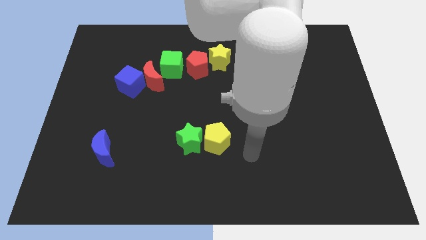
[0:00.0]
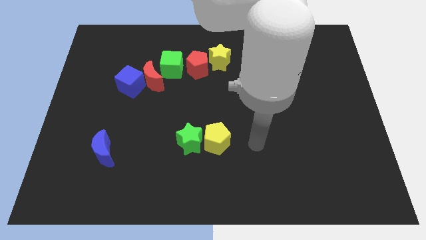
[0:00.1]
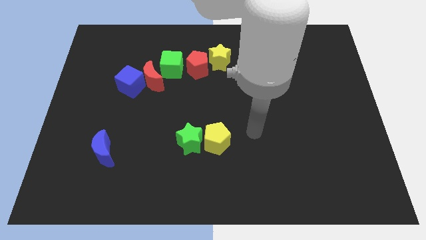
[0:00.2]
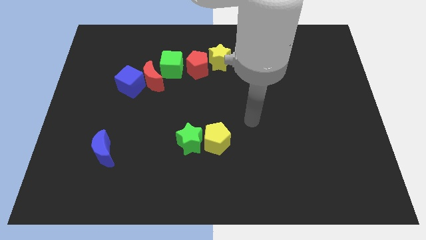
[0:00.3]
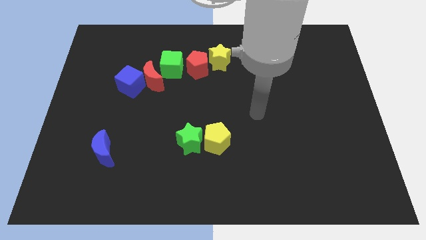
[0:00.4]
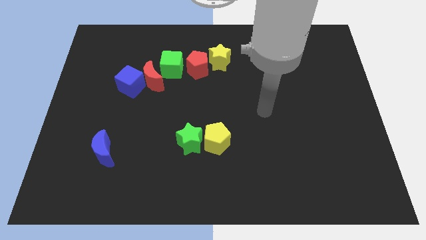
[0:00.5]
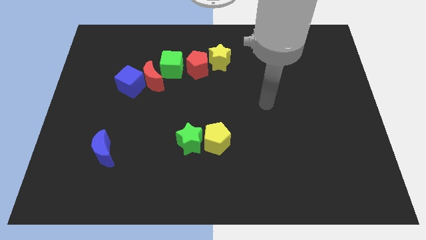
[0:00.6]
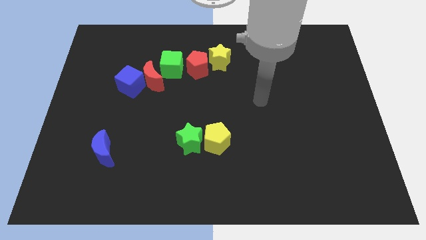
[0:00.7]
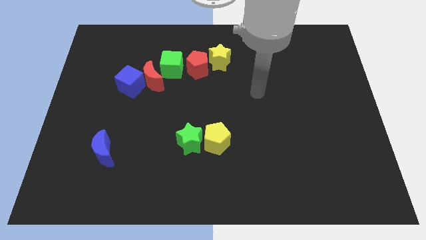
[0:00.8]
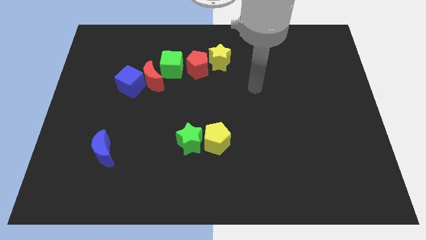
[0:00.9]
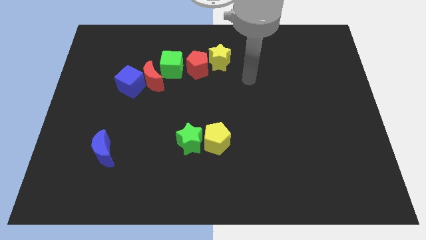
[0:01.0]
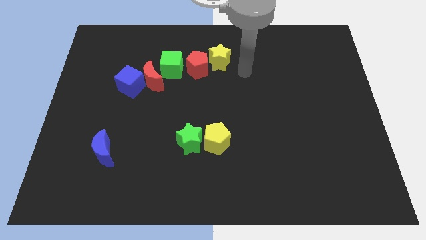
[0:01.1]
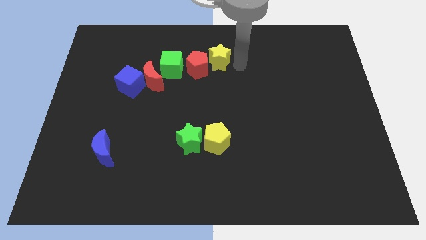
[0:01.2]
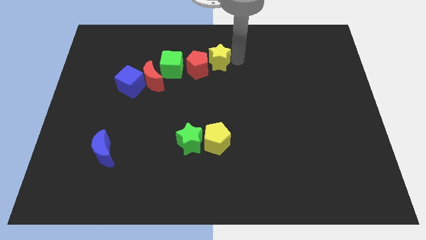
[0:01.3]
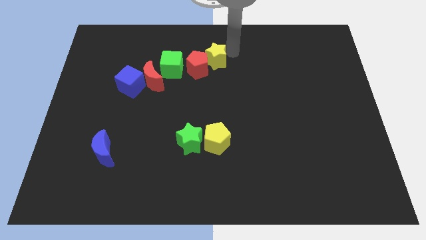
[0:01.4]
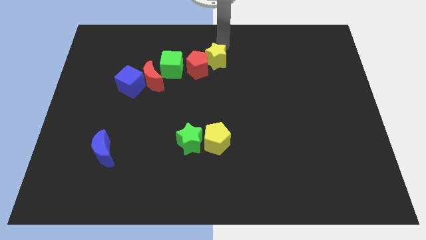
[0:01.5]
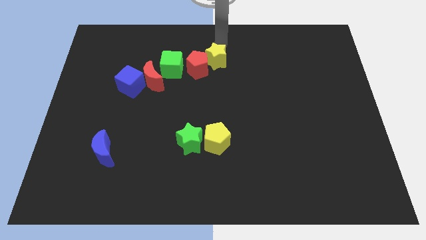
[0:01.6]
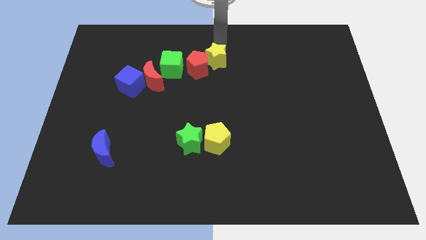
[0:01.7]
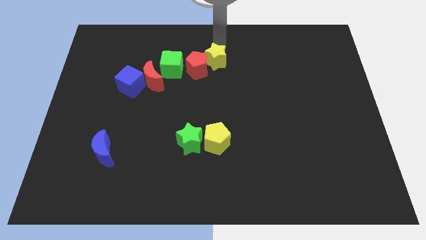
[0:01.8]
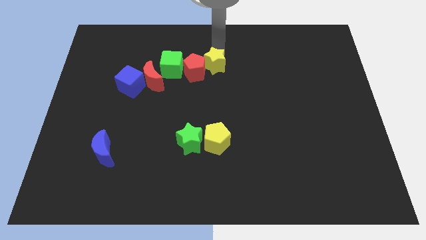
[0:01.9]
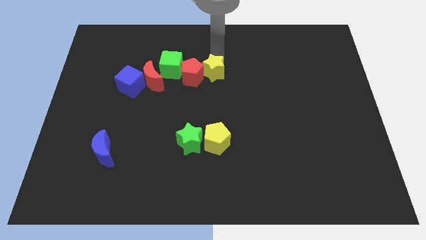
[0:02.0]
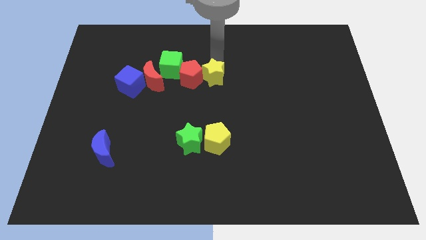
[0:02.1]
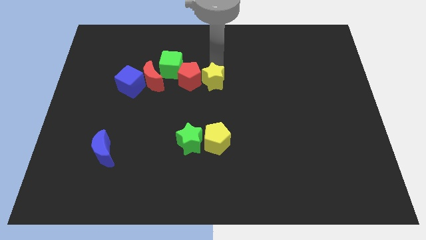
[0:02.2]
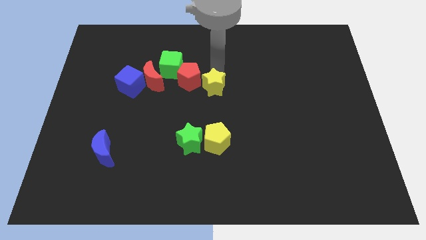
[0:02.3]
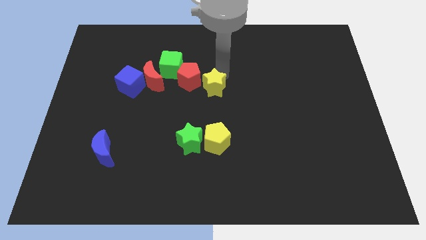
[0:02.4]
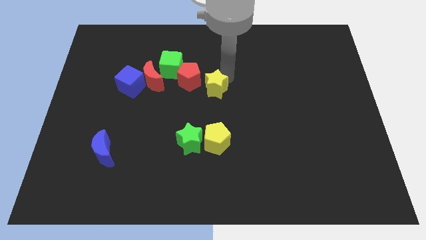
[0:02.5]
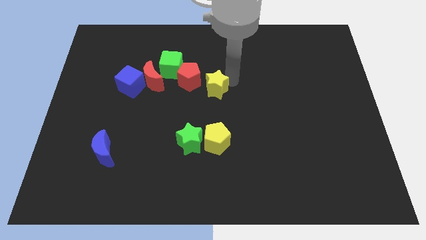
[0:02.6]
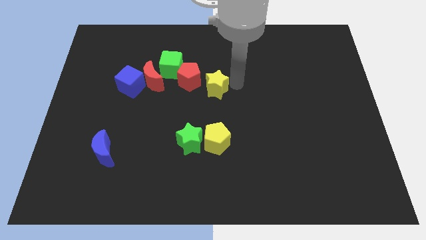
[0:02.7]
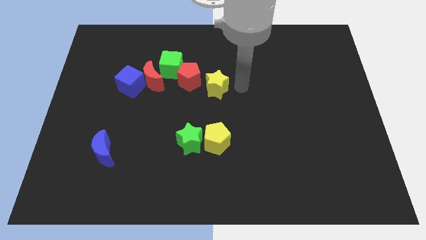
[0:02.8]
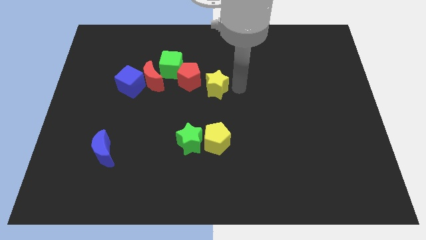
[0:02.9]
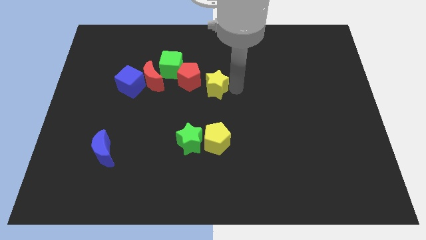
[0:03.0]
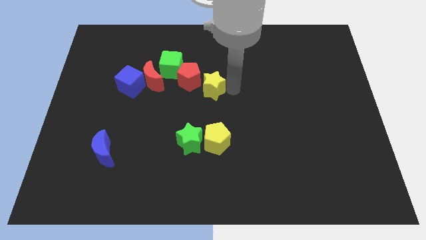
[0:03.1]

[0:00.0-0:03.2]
move the yellow star slightly downwards and left

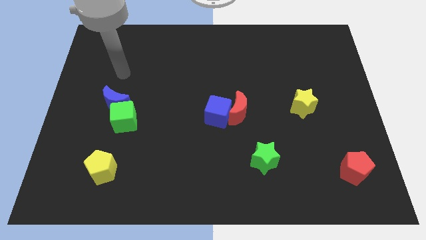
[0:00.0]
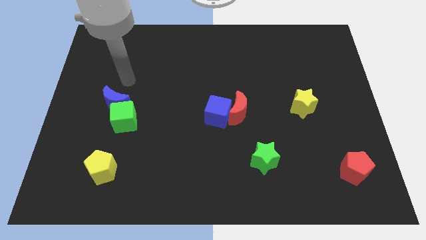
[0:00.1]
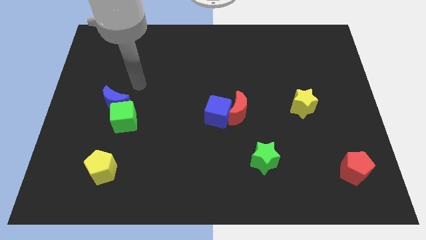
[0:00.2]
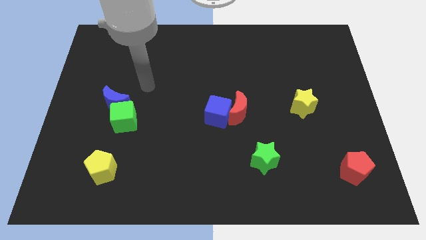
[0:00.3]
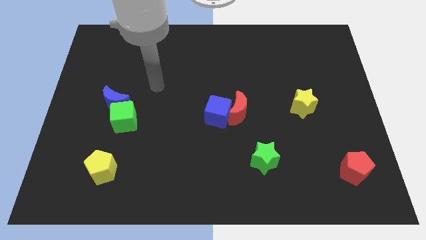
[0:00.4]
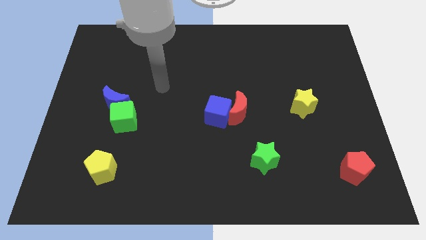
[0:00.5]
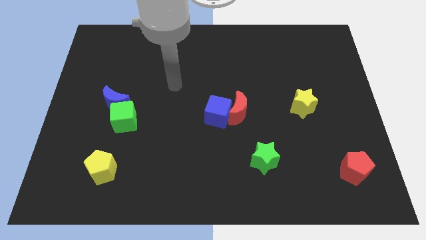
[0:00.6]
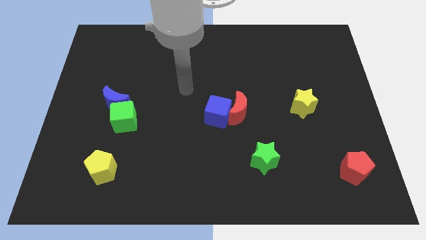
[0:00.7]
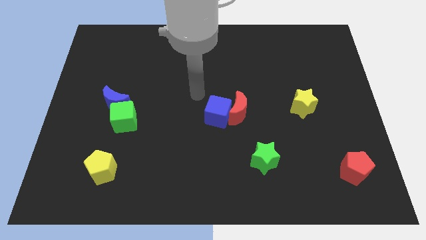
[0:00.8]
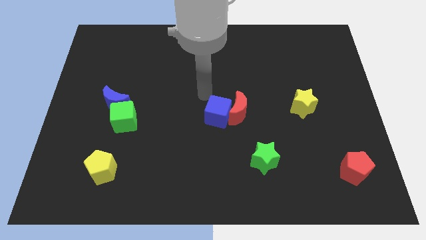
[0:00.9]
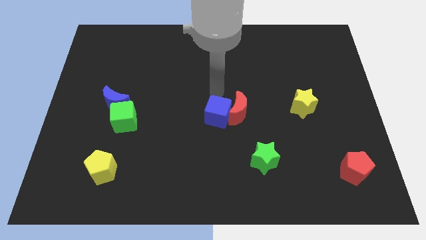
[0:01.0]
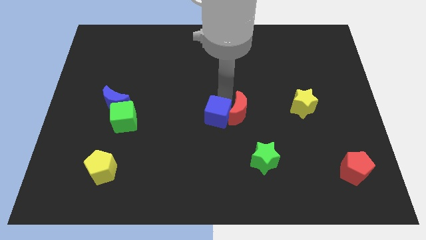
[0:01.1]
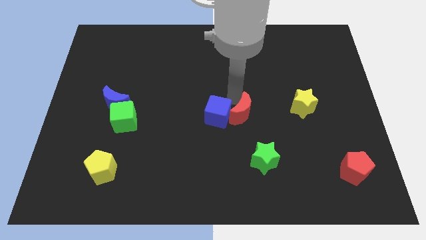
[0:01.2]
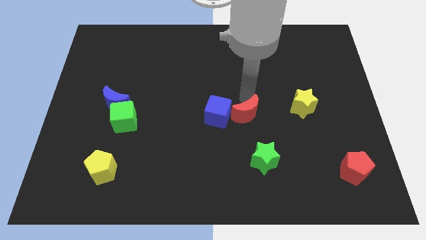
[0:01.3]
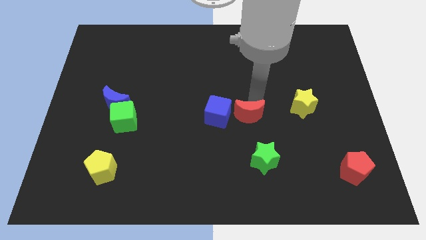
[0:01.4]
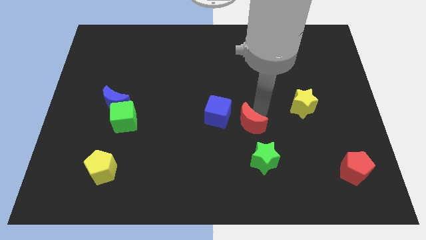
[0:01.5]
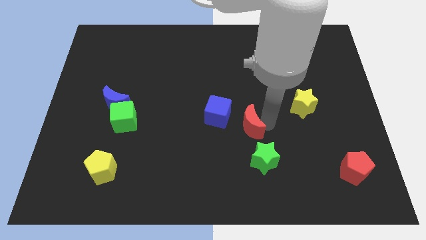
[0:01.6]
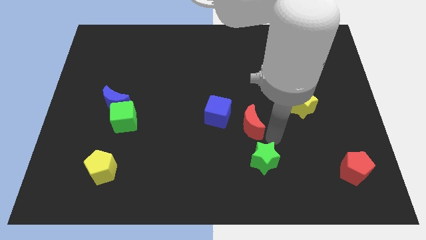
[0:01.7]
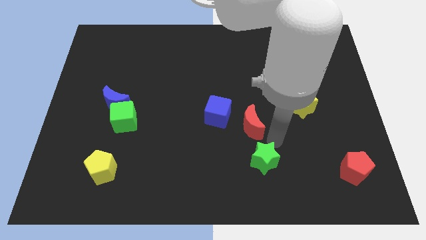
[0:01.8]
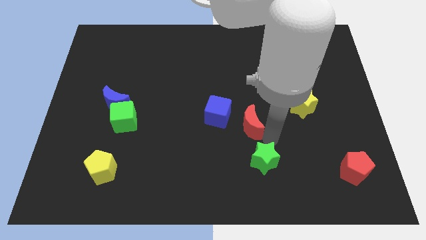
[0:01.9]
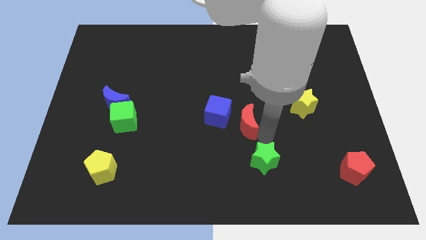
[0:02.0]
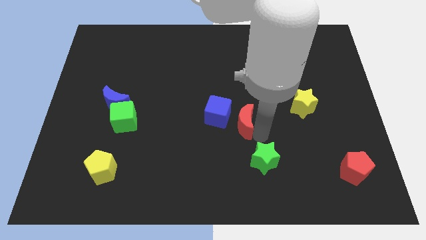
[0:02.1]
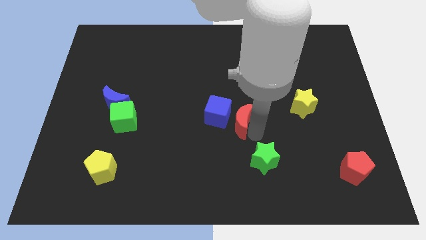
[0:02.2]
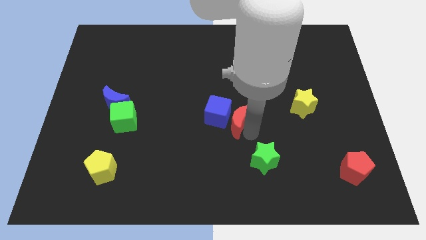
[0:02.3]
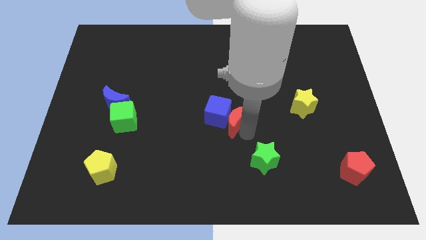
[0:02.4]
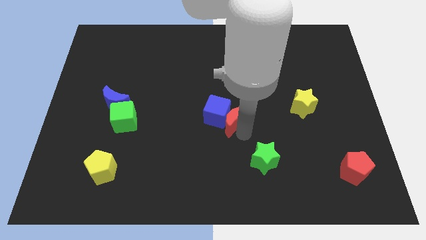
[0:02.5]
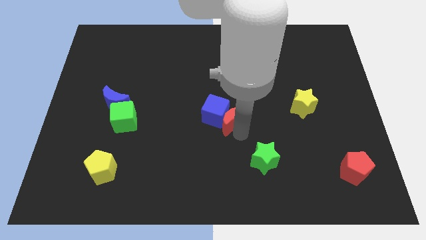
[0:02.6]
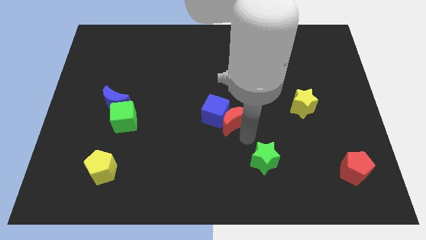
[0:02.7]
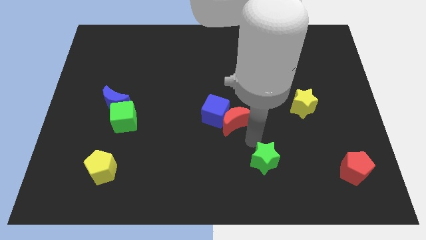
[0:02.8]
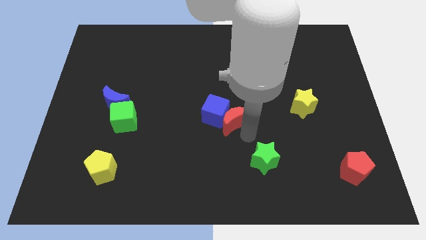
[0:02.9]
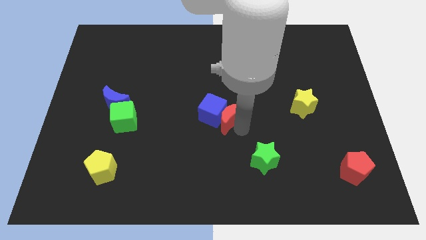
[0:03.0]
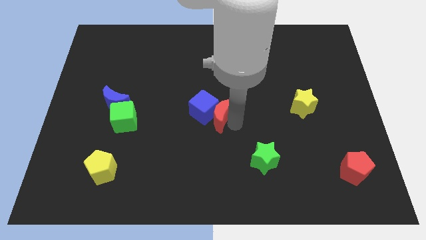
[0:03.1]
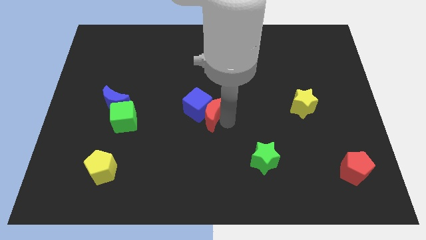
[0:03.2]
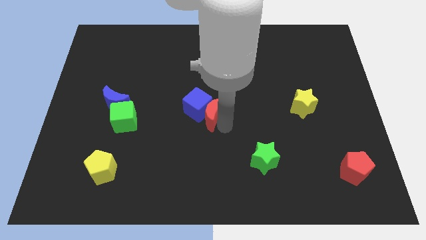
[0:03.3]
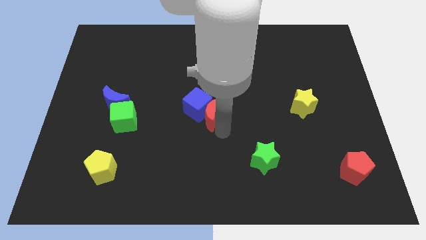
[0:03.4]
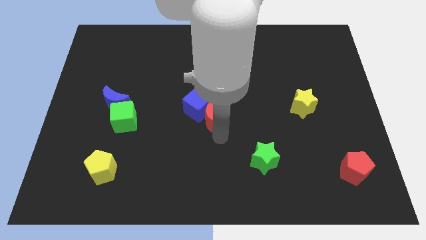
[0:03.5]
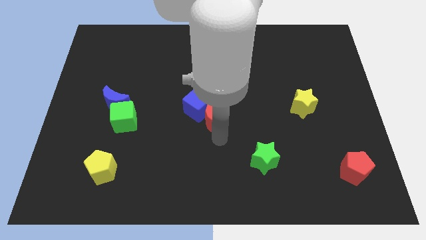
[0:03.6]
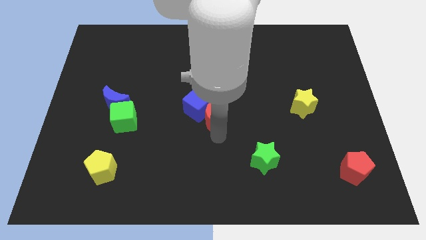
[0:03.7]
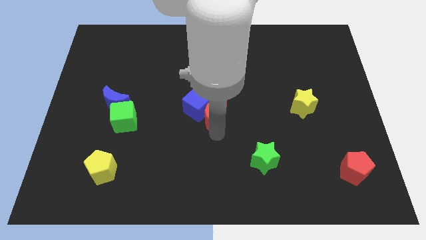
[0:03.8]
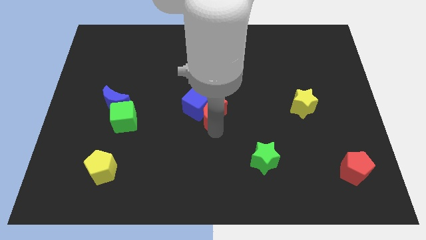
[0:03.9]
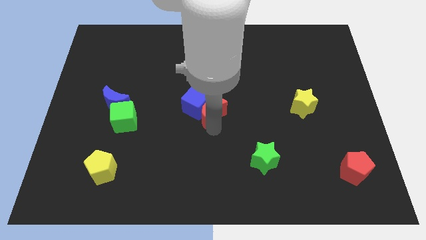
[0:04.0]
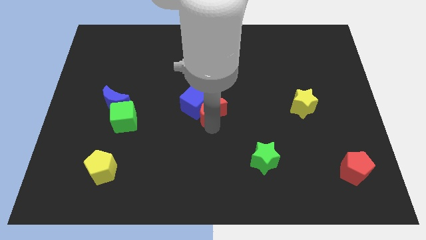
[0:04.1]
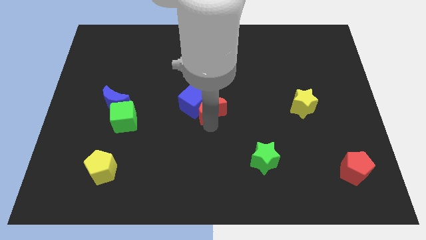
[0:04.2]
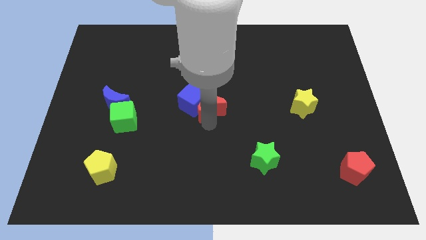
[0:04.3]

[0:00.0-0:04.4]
move the red moon to the left a bit

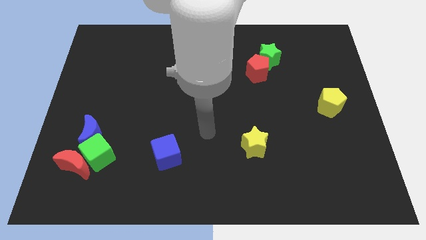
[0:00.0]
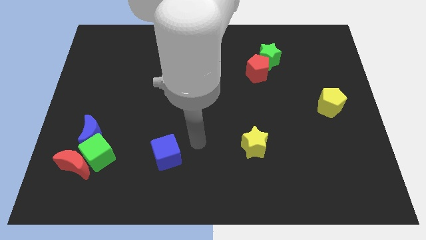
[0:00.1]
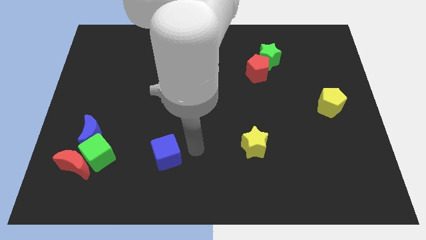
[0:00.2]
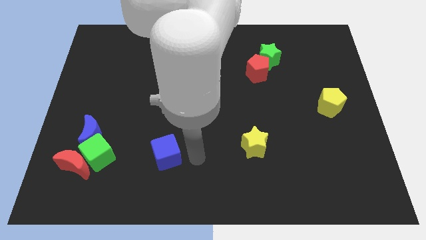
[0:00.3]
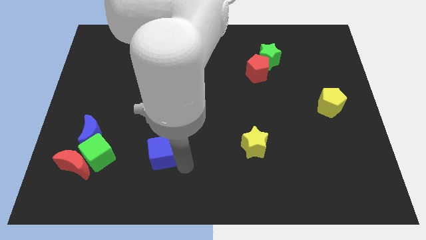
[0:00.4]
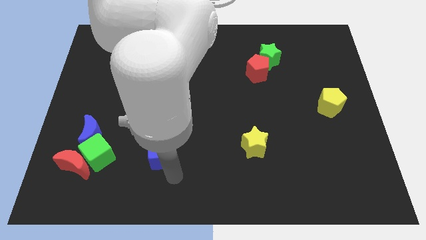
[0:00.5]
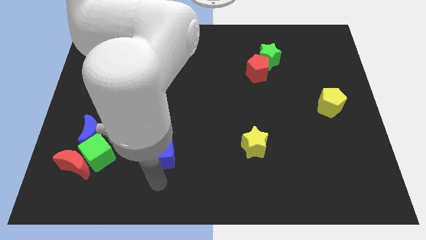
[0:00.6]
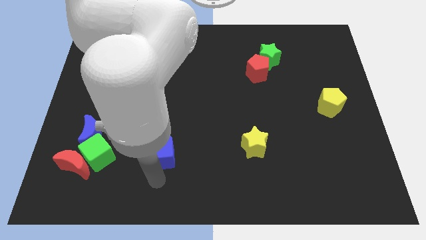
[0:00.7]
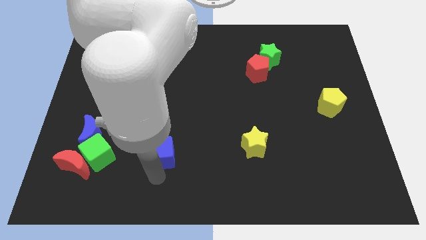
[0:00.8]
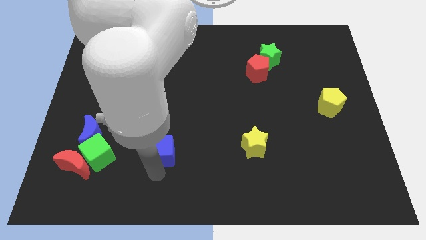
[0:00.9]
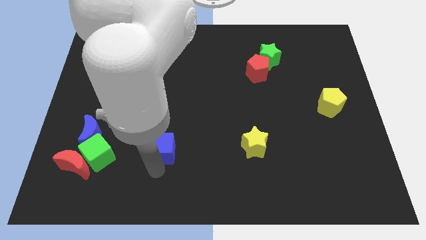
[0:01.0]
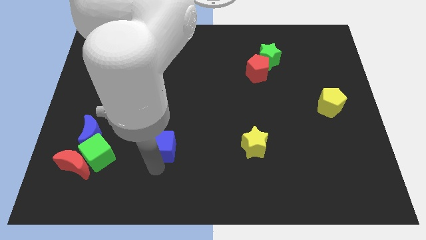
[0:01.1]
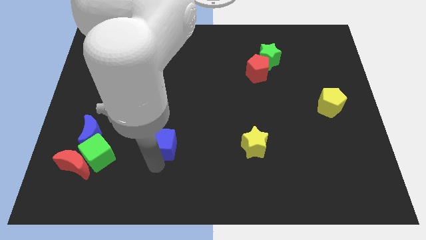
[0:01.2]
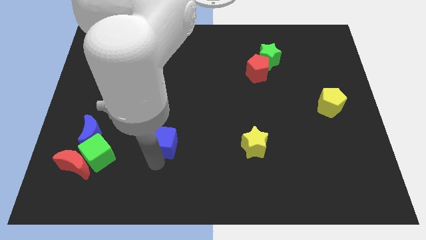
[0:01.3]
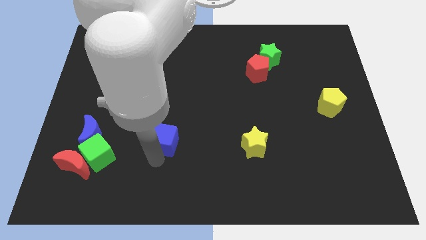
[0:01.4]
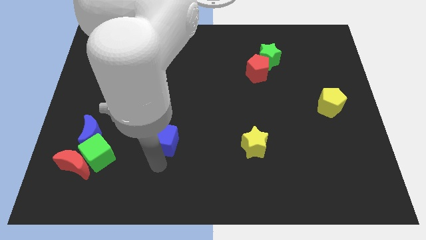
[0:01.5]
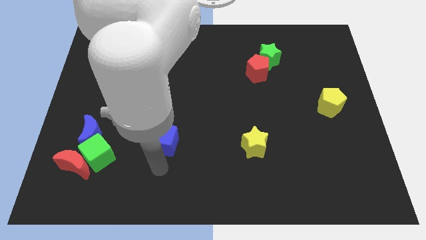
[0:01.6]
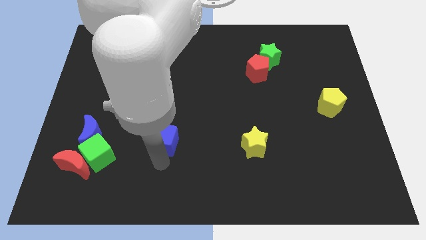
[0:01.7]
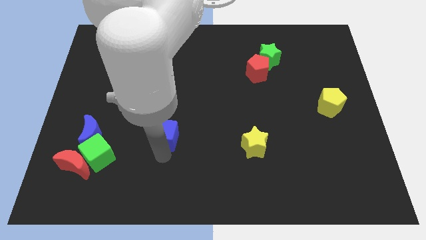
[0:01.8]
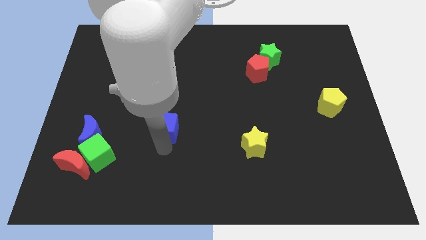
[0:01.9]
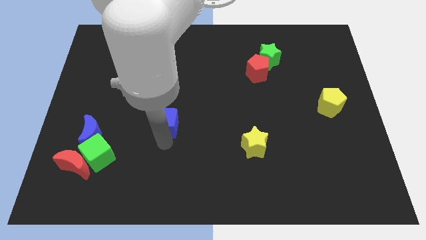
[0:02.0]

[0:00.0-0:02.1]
move the blue cube a little up
